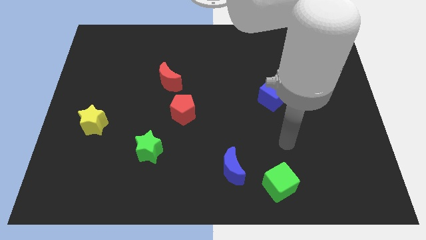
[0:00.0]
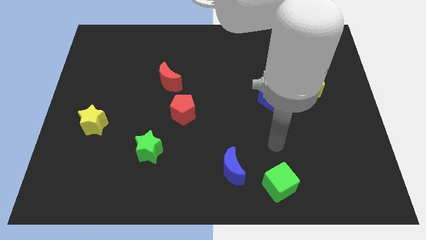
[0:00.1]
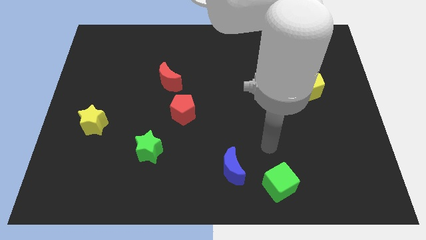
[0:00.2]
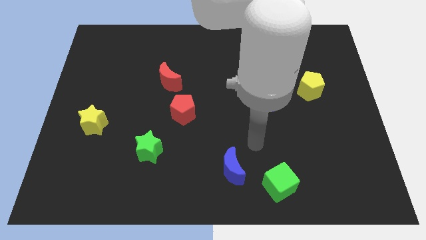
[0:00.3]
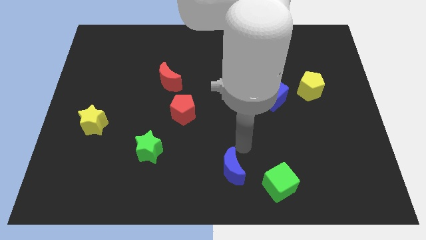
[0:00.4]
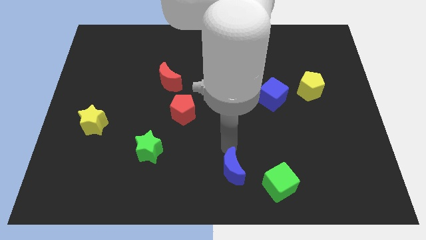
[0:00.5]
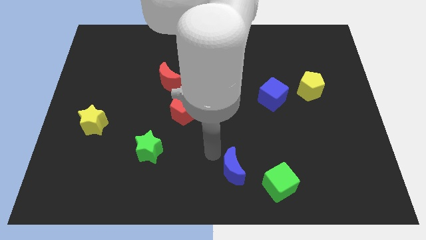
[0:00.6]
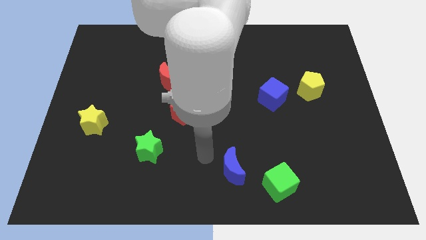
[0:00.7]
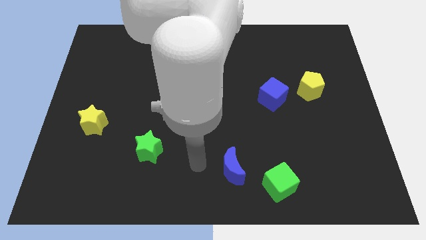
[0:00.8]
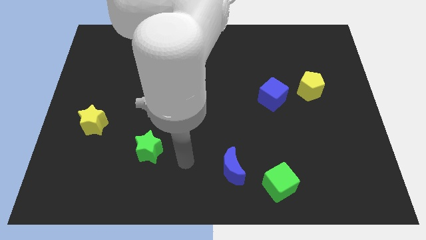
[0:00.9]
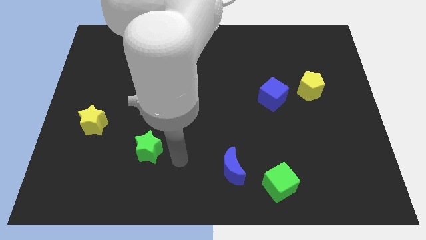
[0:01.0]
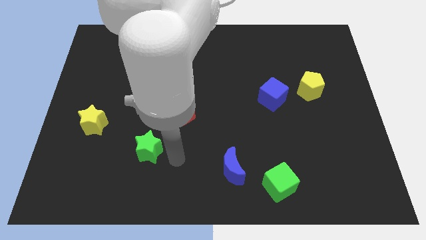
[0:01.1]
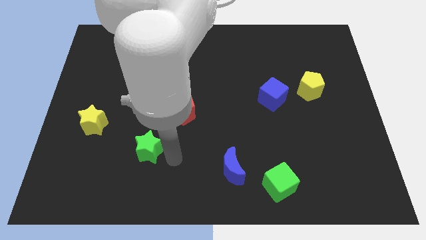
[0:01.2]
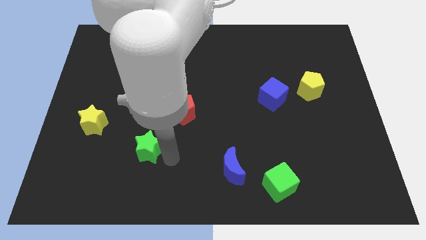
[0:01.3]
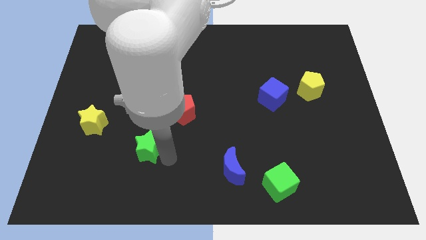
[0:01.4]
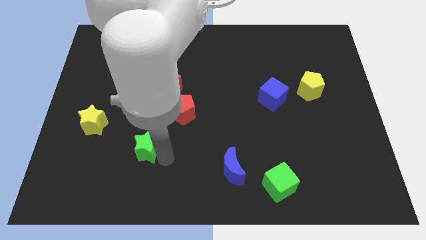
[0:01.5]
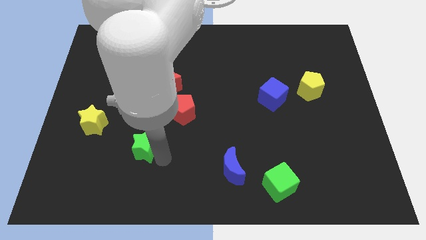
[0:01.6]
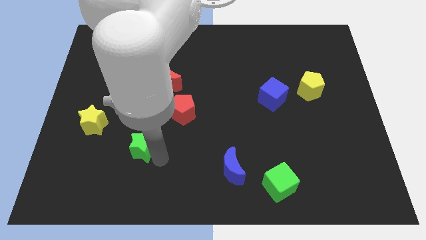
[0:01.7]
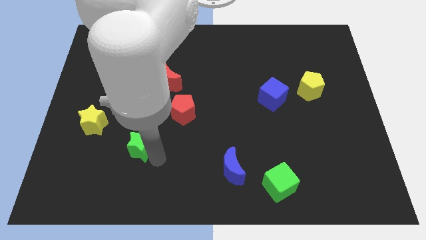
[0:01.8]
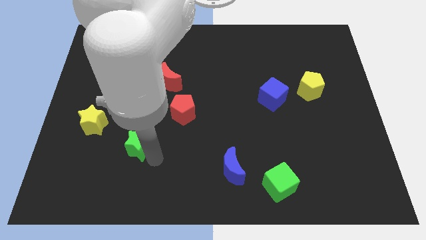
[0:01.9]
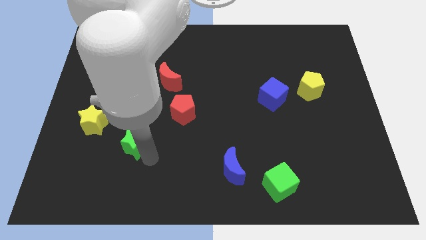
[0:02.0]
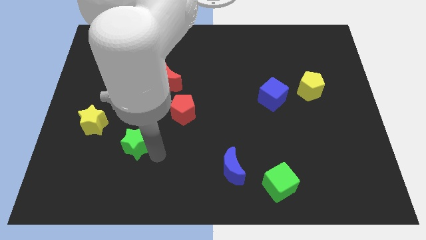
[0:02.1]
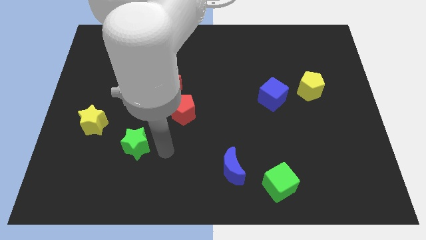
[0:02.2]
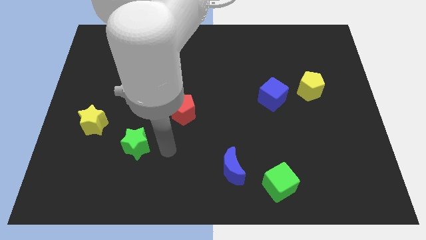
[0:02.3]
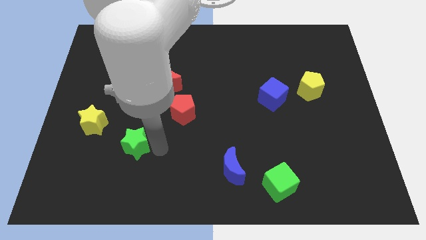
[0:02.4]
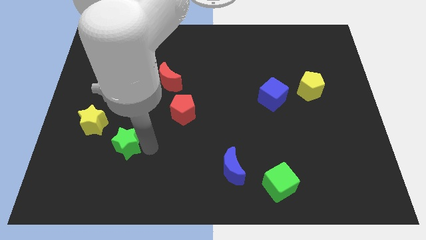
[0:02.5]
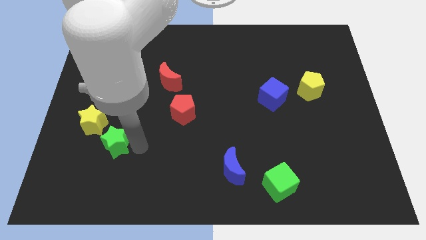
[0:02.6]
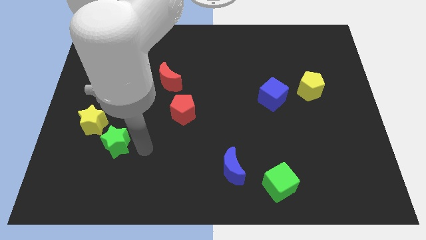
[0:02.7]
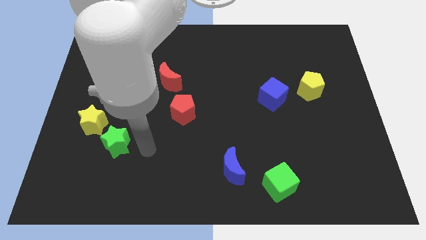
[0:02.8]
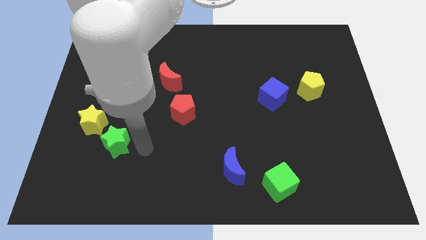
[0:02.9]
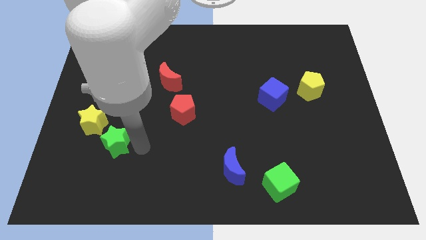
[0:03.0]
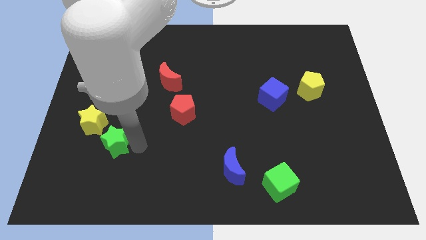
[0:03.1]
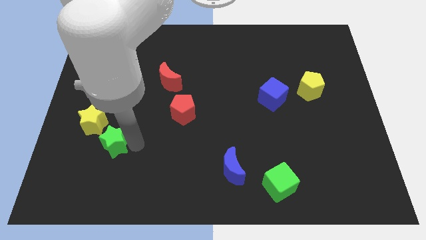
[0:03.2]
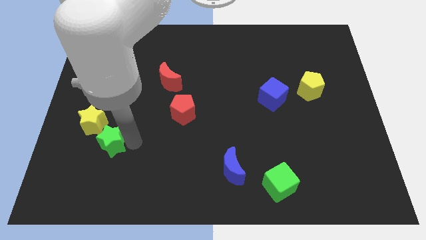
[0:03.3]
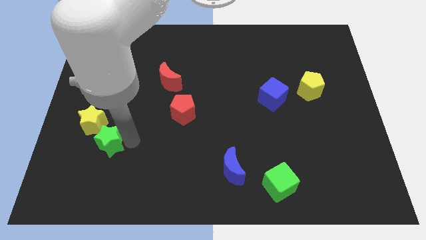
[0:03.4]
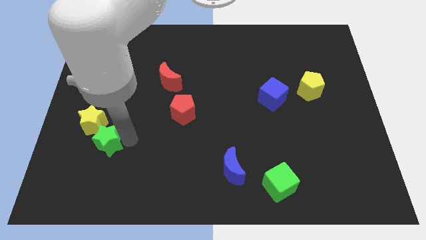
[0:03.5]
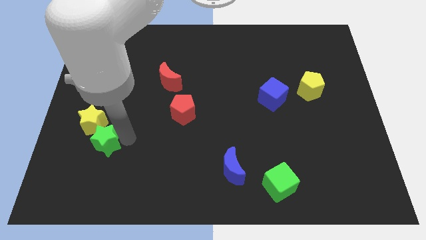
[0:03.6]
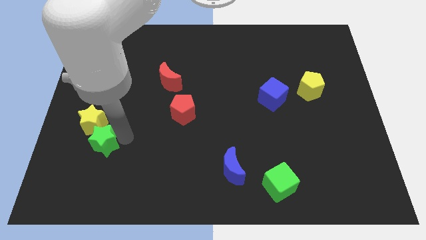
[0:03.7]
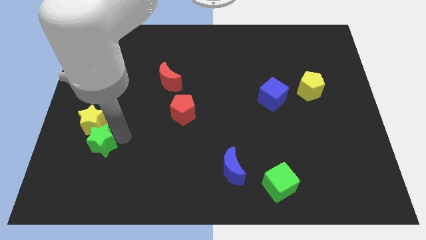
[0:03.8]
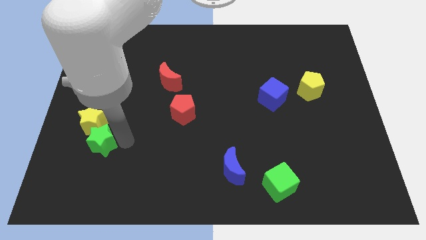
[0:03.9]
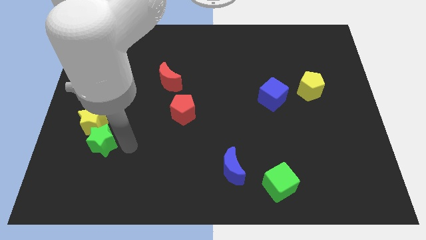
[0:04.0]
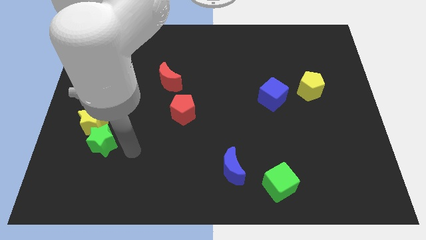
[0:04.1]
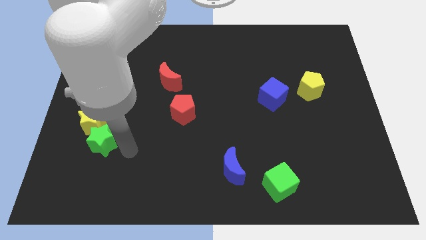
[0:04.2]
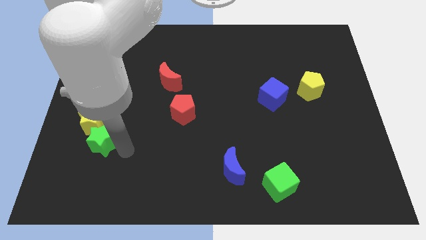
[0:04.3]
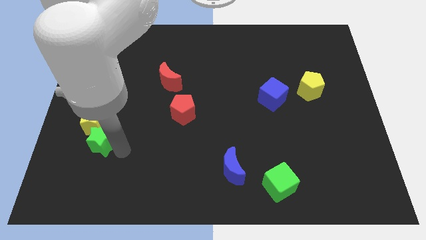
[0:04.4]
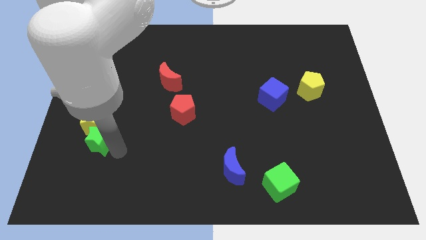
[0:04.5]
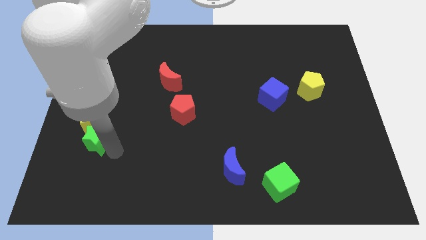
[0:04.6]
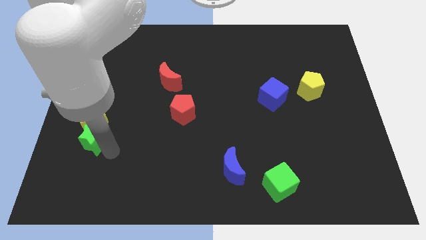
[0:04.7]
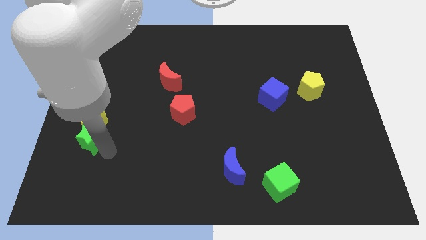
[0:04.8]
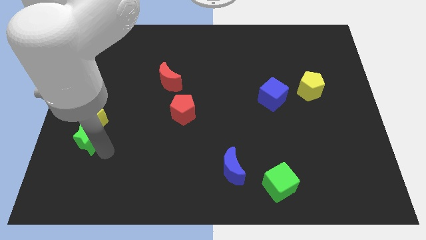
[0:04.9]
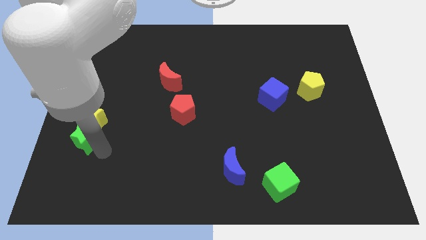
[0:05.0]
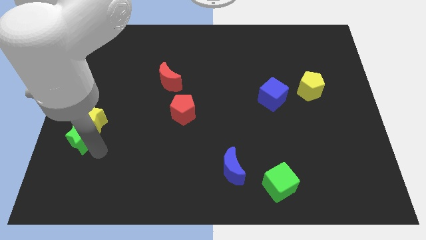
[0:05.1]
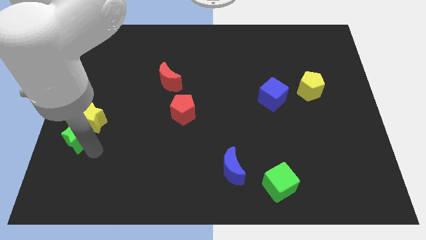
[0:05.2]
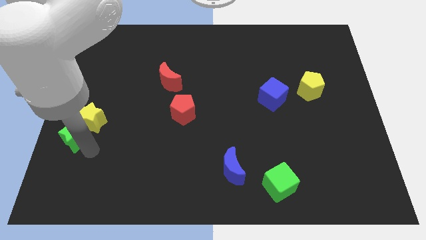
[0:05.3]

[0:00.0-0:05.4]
push the green star to the left side

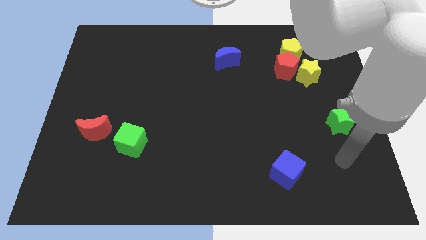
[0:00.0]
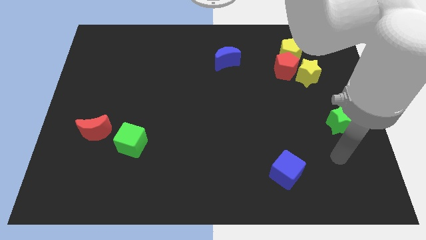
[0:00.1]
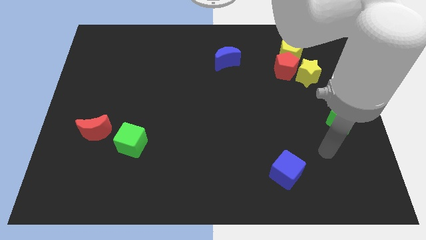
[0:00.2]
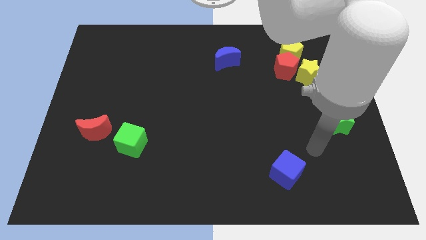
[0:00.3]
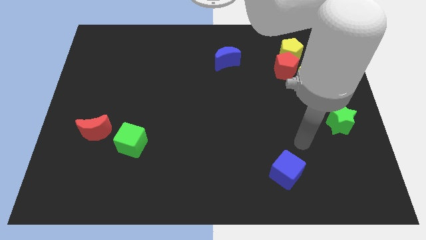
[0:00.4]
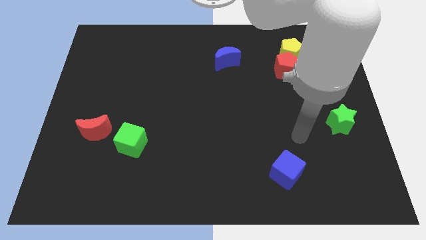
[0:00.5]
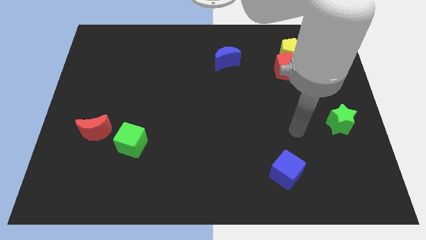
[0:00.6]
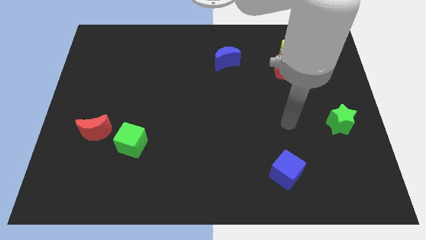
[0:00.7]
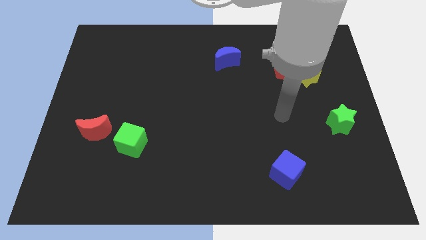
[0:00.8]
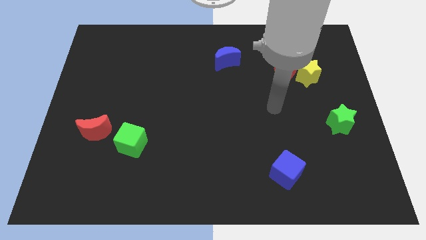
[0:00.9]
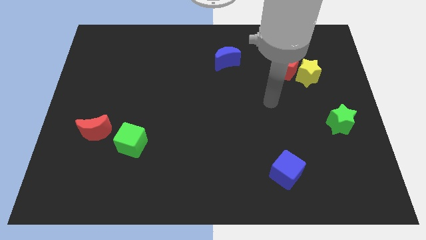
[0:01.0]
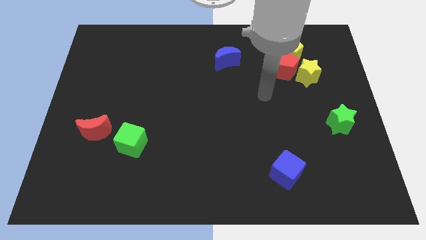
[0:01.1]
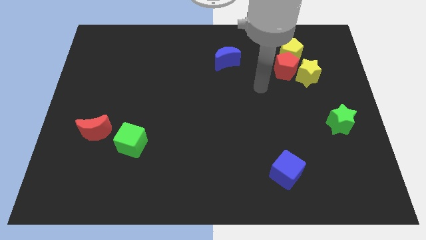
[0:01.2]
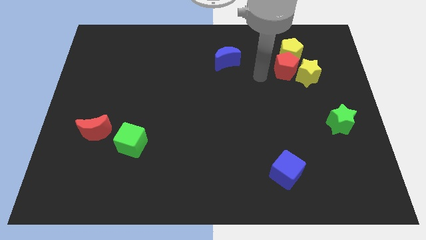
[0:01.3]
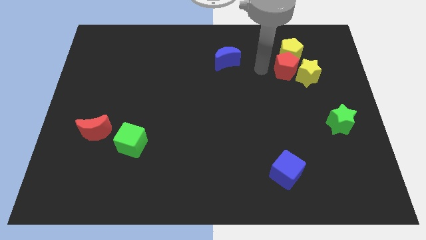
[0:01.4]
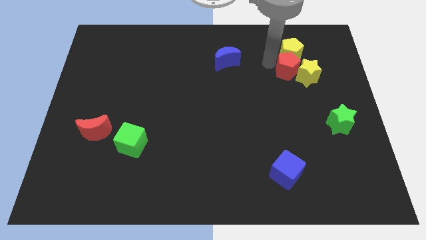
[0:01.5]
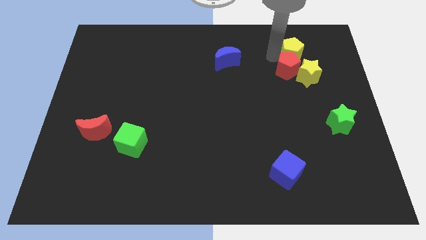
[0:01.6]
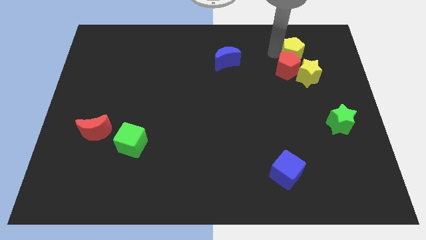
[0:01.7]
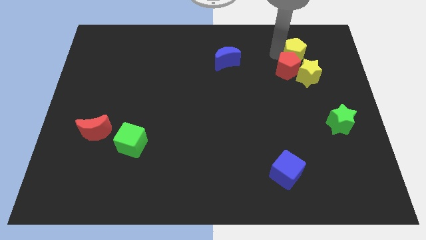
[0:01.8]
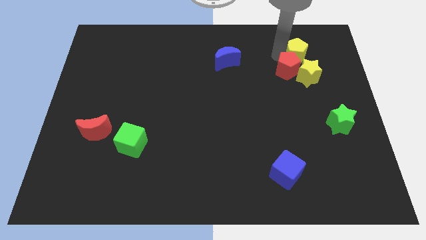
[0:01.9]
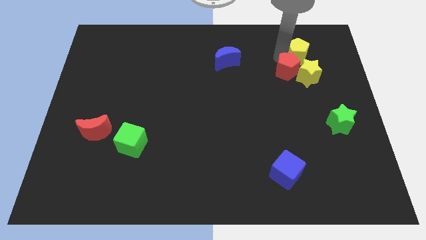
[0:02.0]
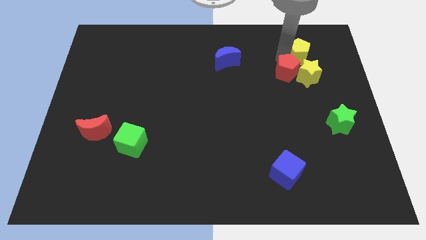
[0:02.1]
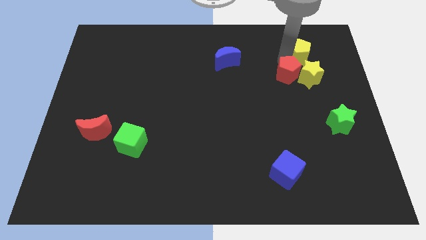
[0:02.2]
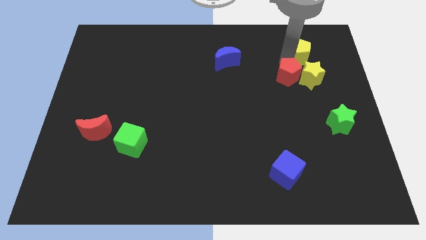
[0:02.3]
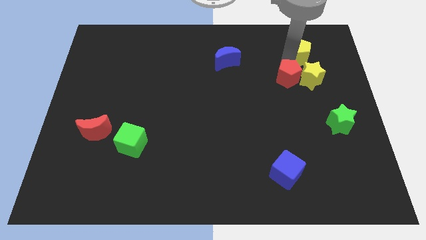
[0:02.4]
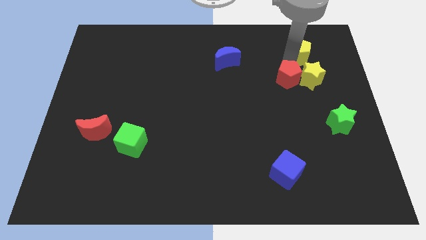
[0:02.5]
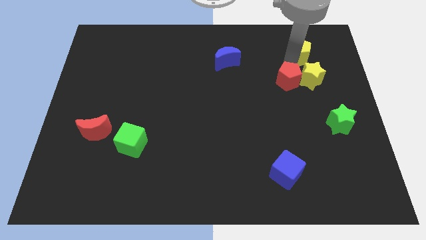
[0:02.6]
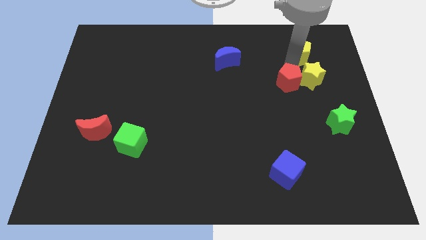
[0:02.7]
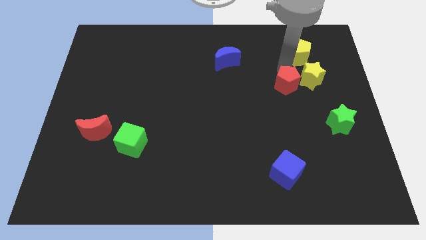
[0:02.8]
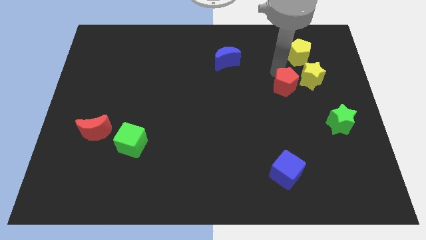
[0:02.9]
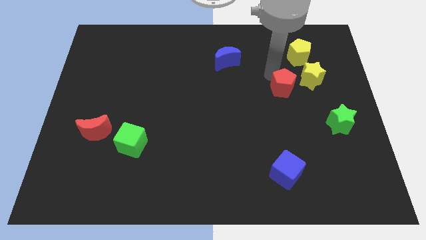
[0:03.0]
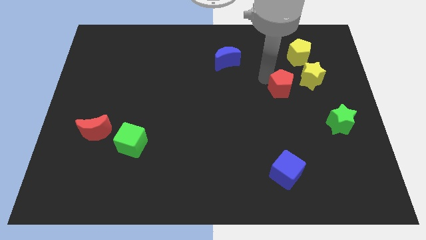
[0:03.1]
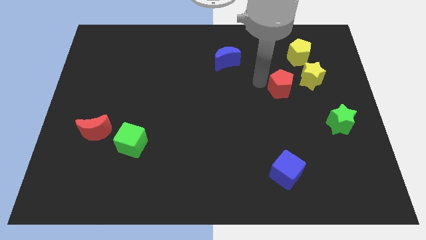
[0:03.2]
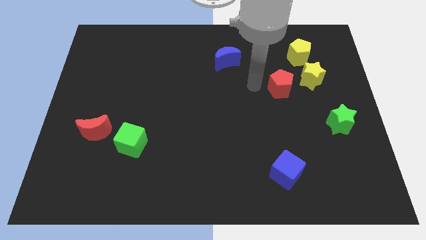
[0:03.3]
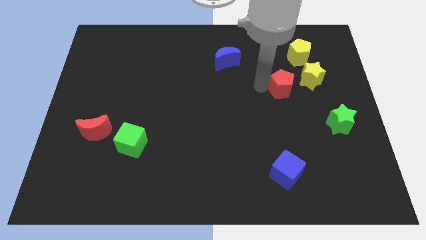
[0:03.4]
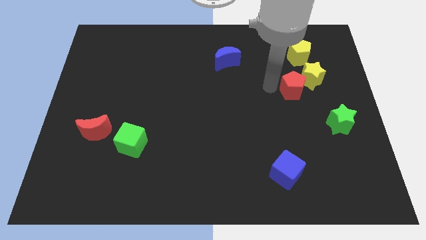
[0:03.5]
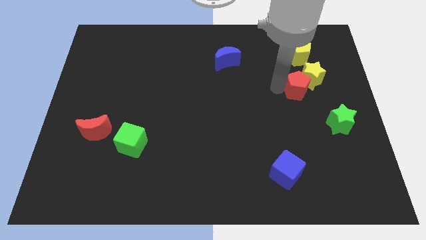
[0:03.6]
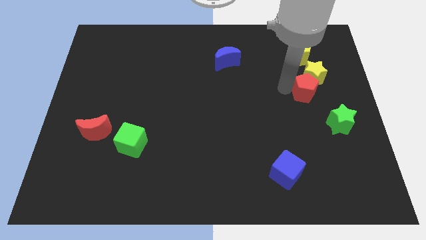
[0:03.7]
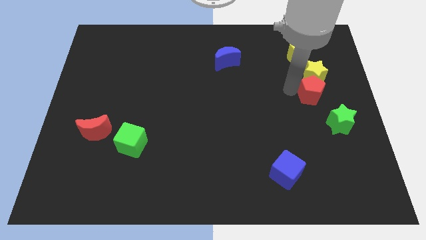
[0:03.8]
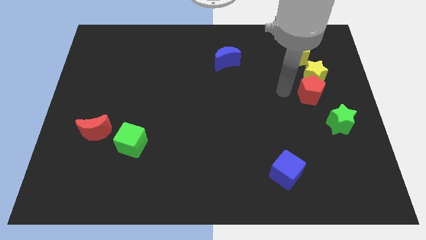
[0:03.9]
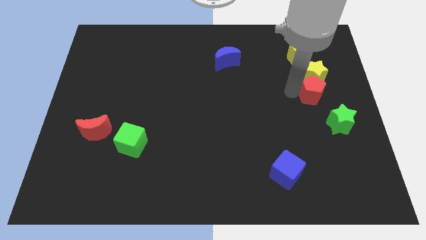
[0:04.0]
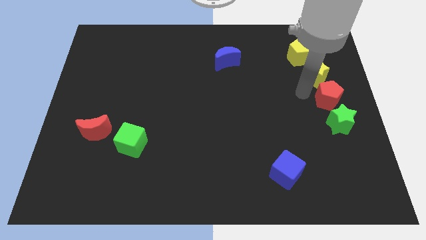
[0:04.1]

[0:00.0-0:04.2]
slide the red pentagon to the right side of the board
